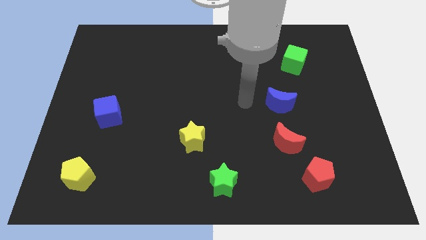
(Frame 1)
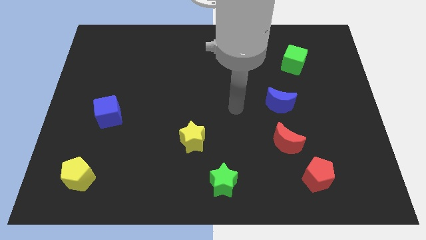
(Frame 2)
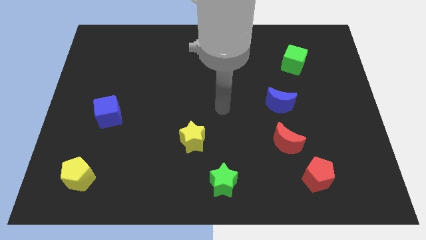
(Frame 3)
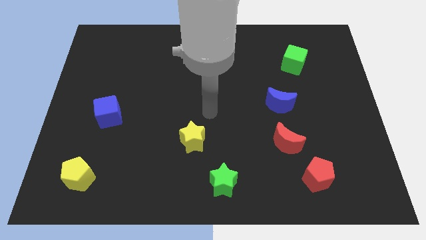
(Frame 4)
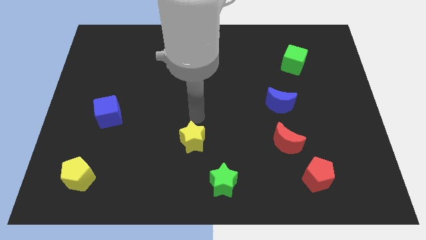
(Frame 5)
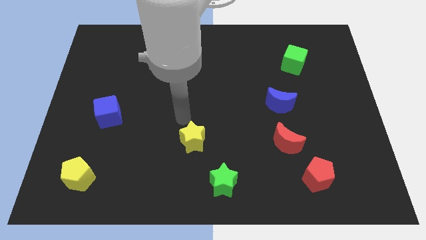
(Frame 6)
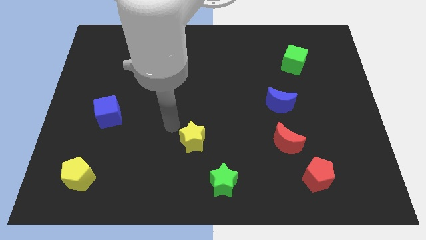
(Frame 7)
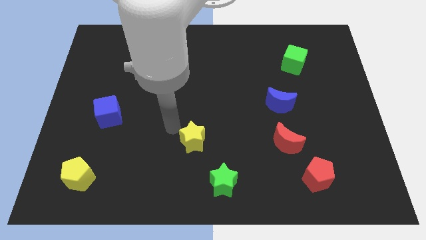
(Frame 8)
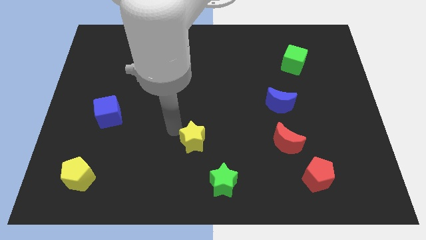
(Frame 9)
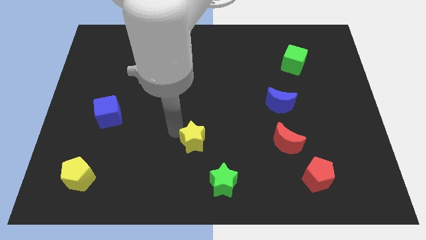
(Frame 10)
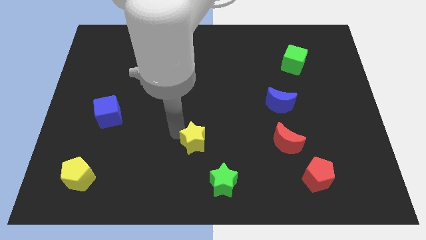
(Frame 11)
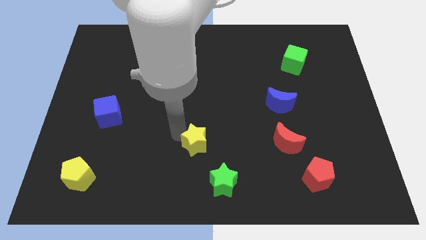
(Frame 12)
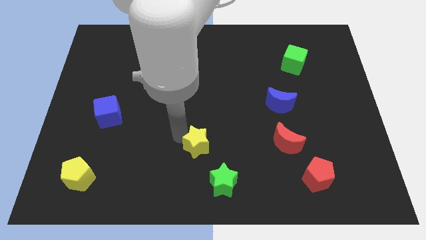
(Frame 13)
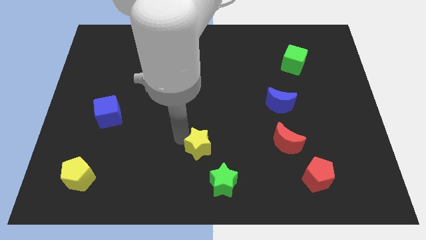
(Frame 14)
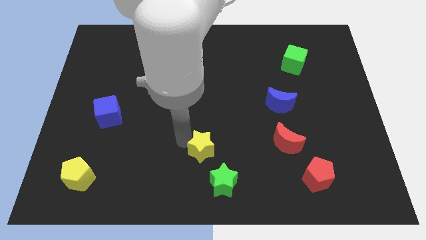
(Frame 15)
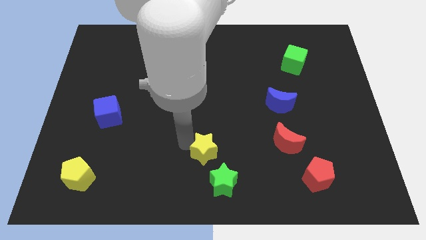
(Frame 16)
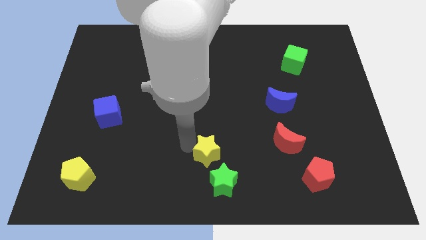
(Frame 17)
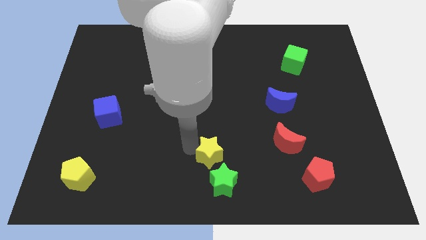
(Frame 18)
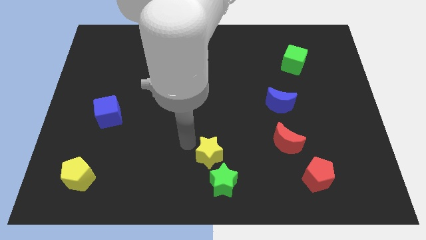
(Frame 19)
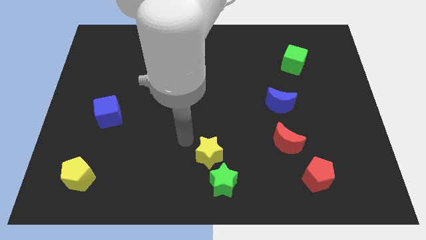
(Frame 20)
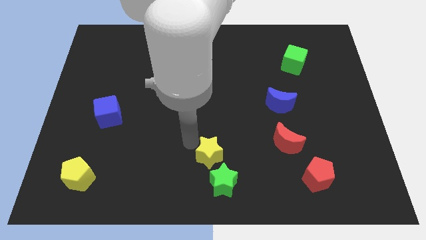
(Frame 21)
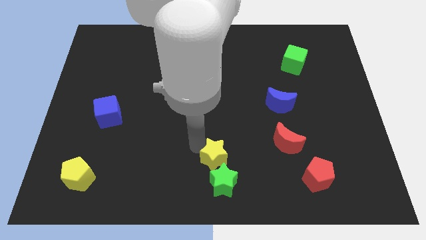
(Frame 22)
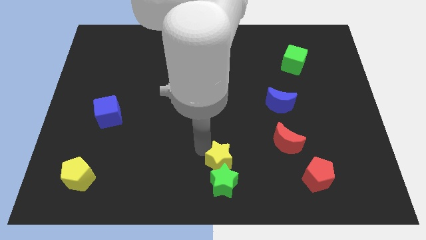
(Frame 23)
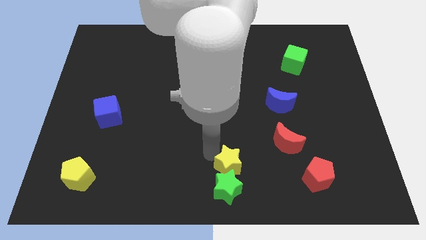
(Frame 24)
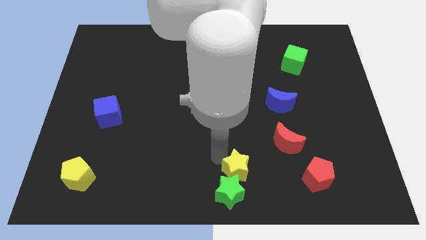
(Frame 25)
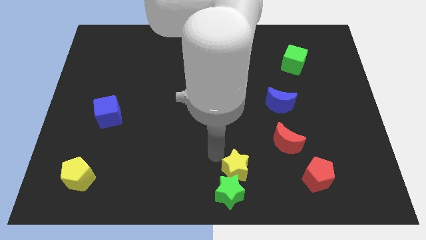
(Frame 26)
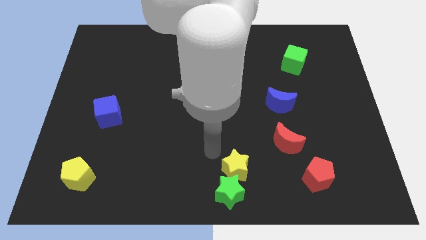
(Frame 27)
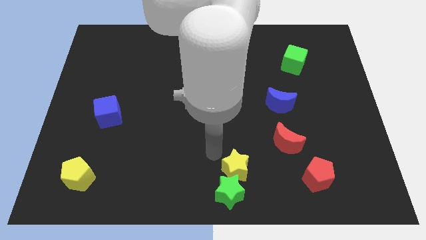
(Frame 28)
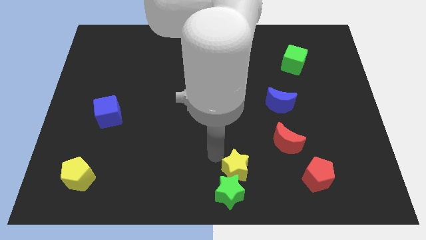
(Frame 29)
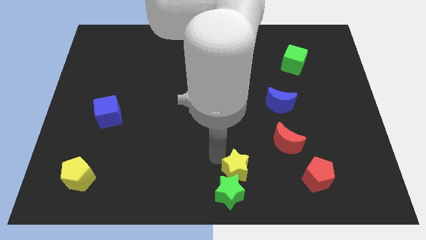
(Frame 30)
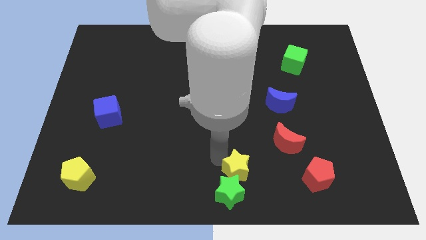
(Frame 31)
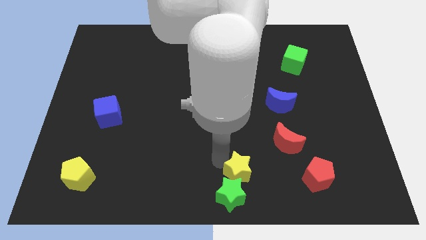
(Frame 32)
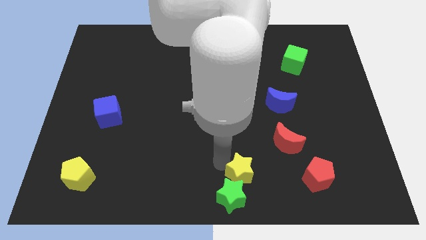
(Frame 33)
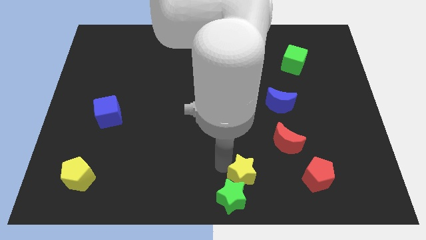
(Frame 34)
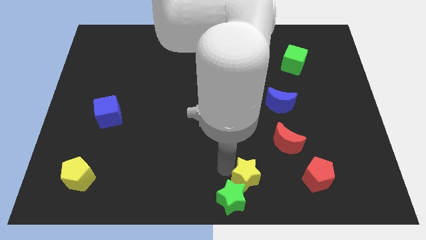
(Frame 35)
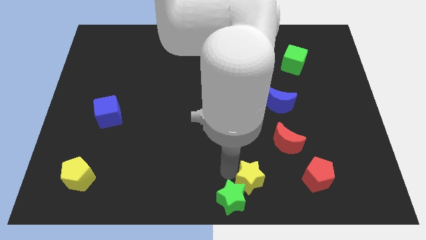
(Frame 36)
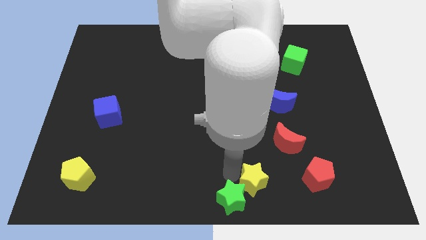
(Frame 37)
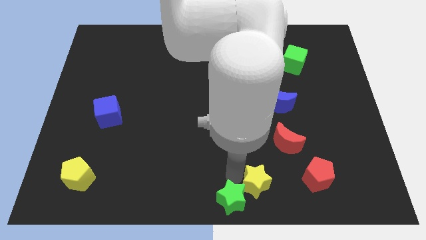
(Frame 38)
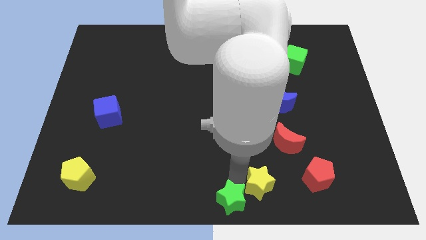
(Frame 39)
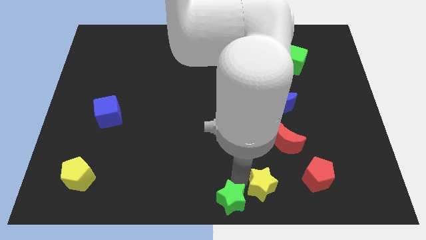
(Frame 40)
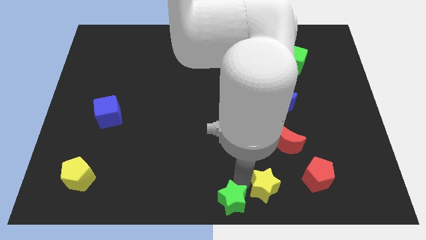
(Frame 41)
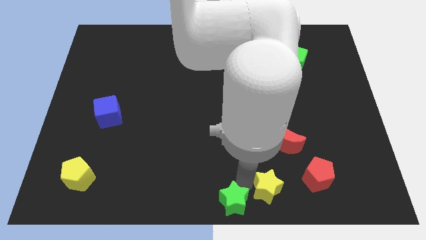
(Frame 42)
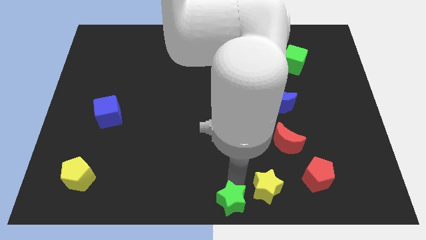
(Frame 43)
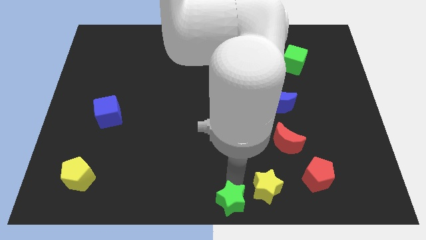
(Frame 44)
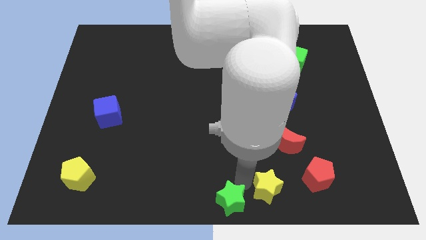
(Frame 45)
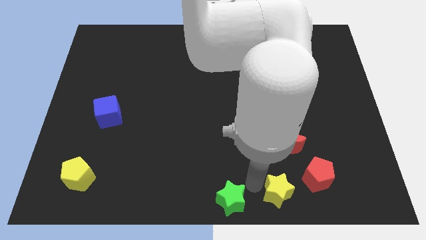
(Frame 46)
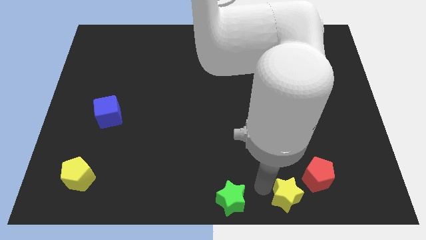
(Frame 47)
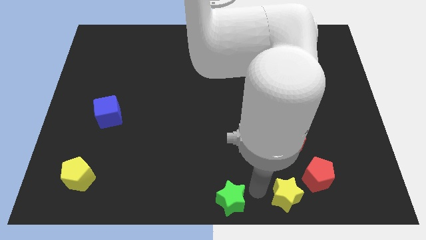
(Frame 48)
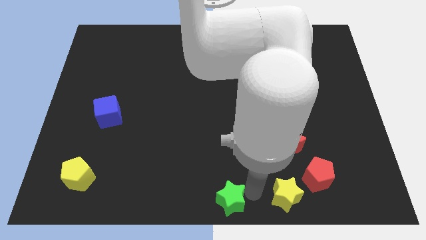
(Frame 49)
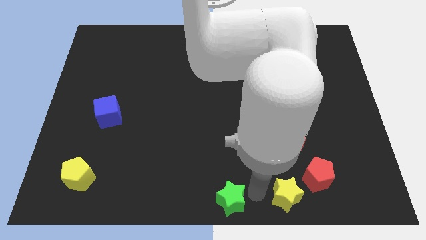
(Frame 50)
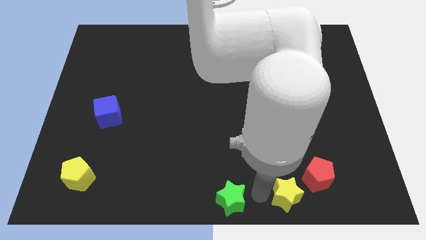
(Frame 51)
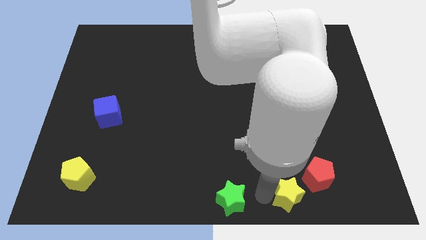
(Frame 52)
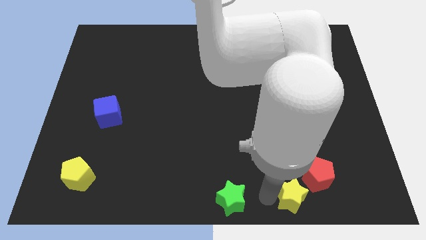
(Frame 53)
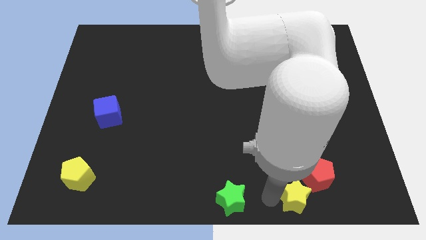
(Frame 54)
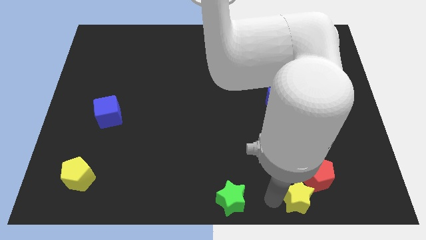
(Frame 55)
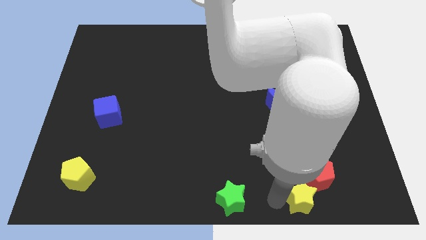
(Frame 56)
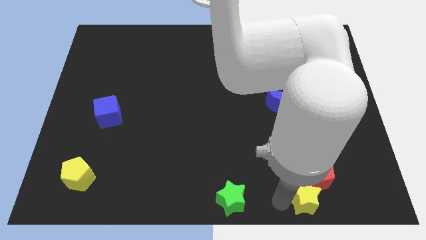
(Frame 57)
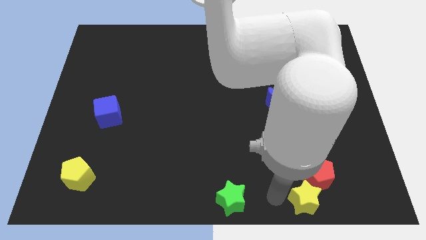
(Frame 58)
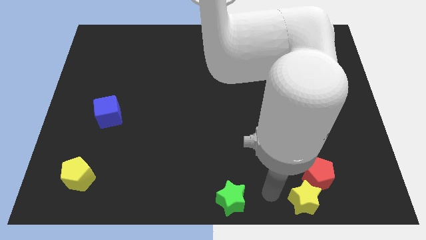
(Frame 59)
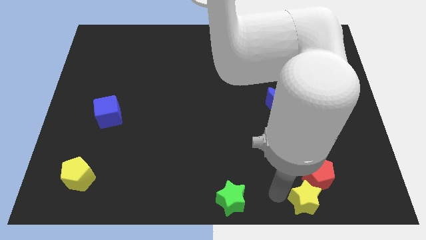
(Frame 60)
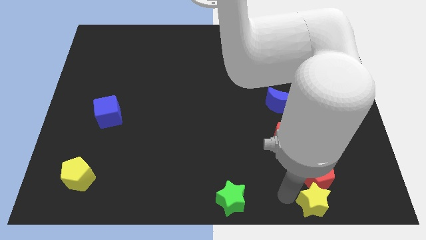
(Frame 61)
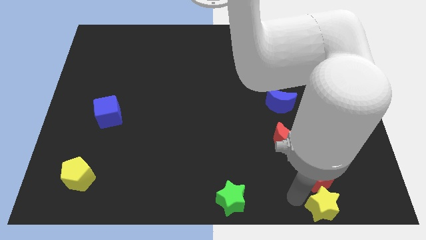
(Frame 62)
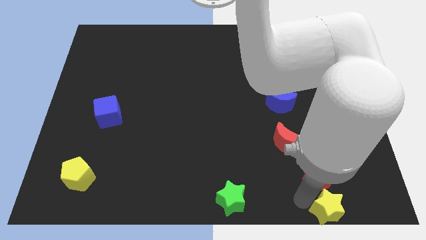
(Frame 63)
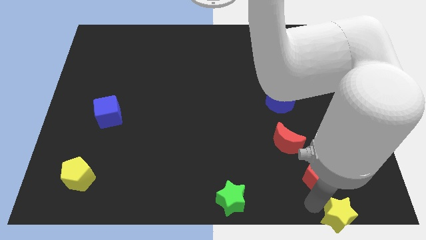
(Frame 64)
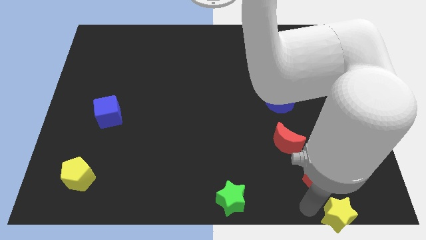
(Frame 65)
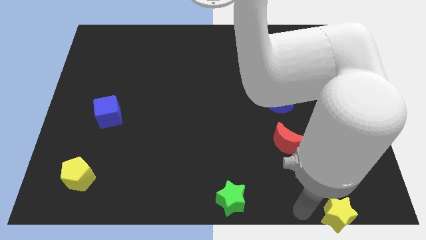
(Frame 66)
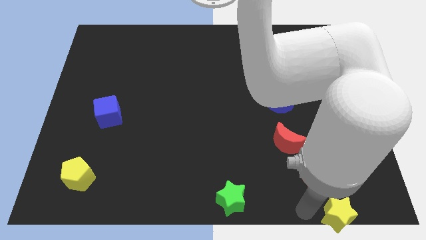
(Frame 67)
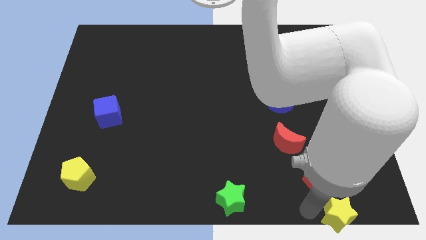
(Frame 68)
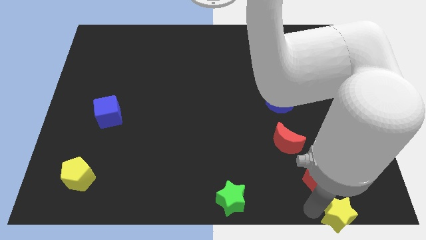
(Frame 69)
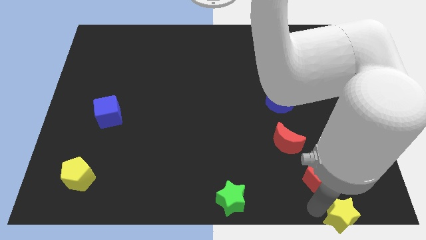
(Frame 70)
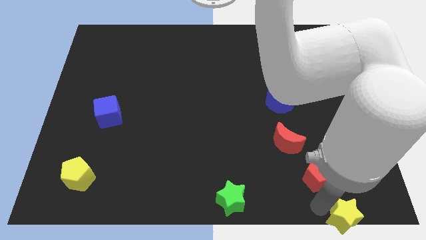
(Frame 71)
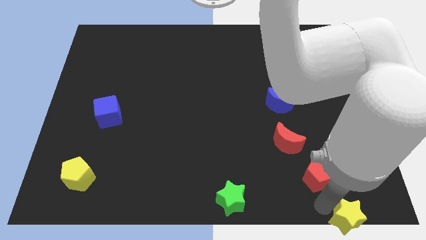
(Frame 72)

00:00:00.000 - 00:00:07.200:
slide the yellow star to the bottom right
